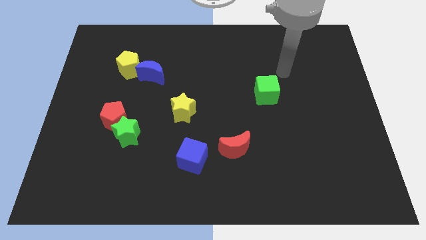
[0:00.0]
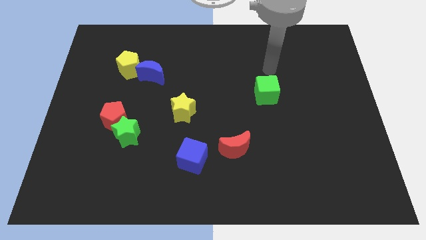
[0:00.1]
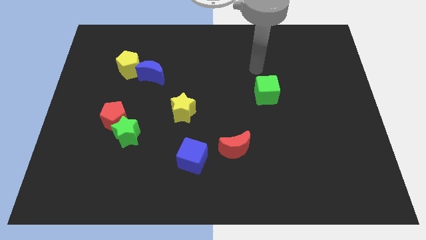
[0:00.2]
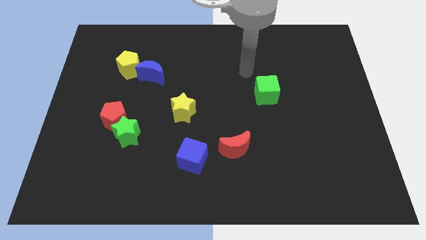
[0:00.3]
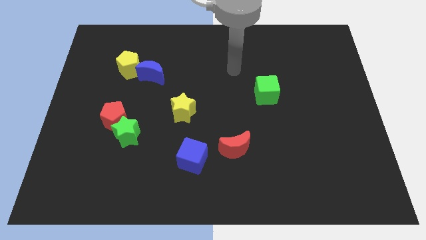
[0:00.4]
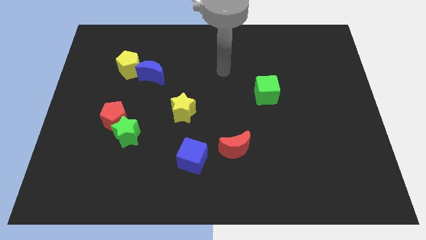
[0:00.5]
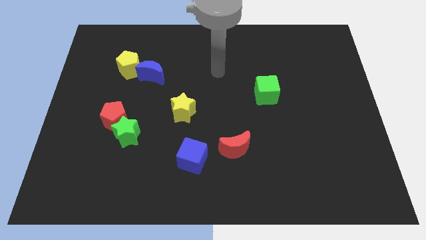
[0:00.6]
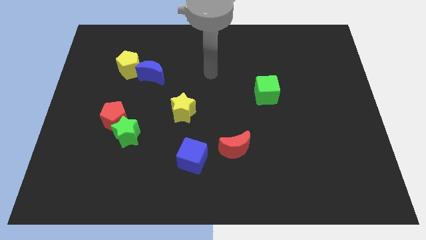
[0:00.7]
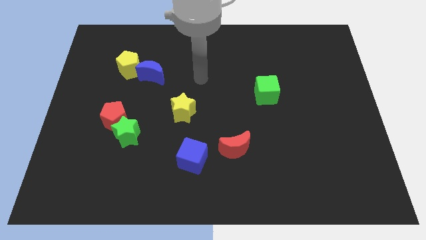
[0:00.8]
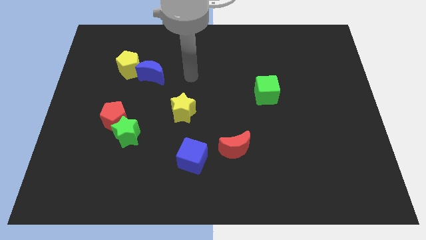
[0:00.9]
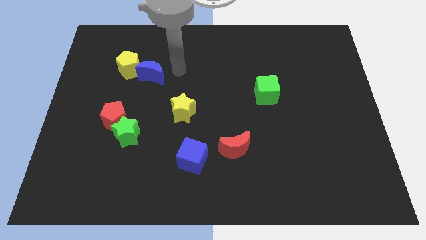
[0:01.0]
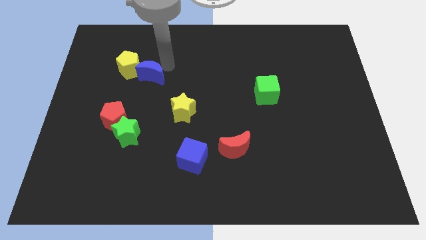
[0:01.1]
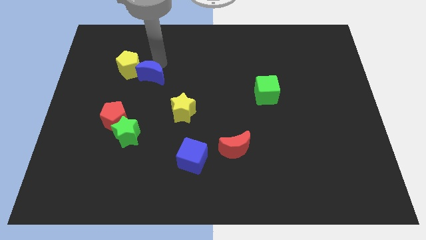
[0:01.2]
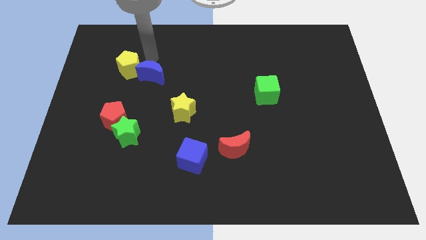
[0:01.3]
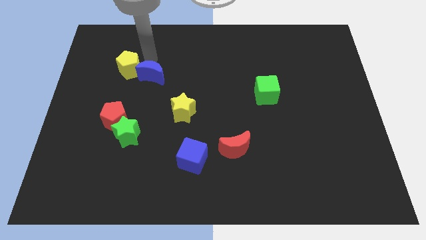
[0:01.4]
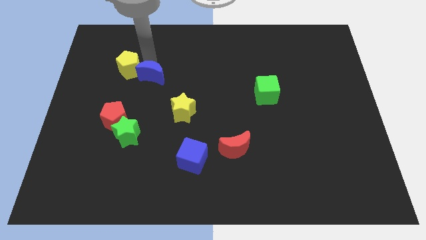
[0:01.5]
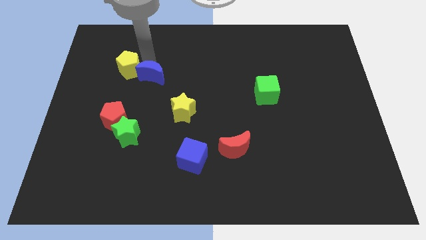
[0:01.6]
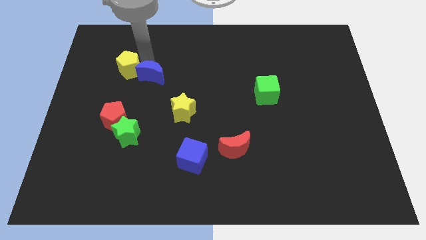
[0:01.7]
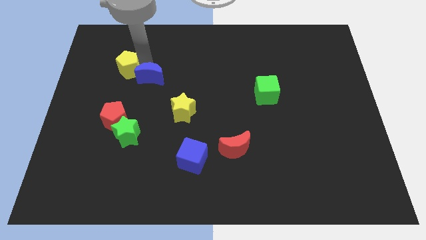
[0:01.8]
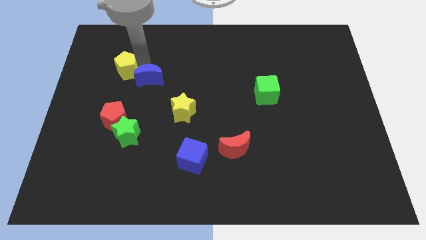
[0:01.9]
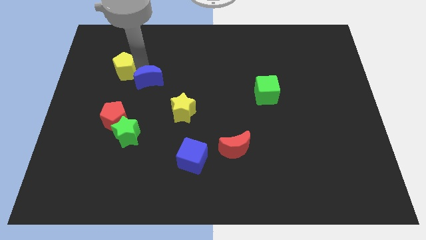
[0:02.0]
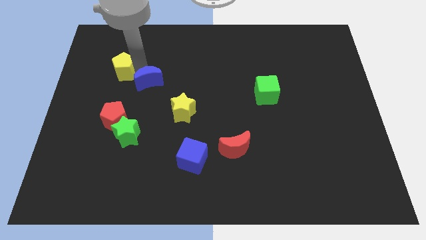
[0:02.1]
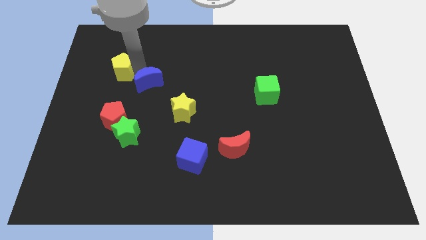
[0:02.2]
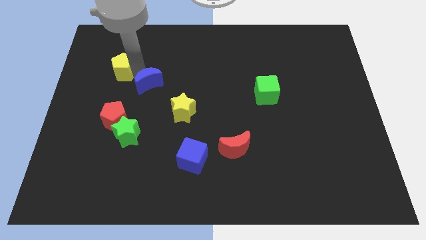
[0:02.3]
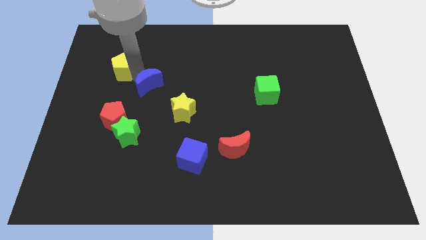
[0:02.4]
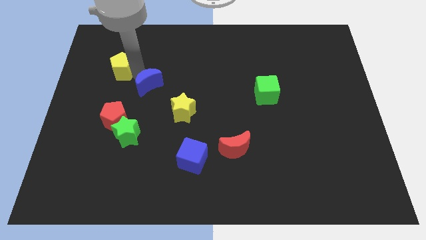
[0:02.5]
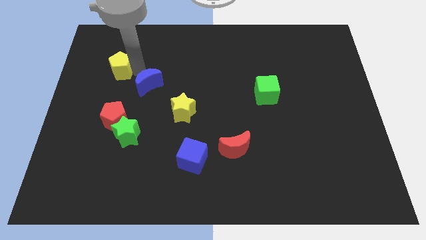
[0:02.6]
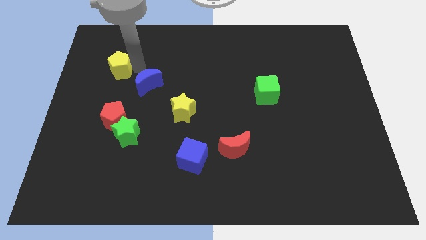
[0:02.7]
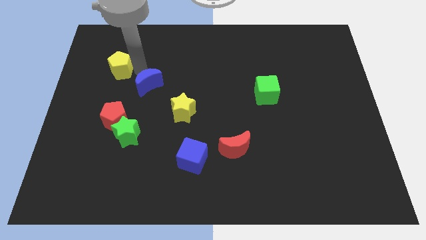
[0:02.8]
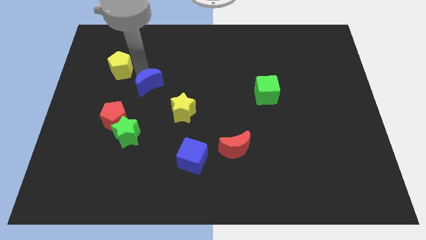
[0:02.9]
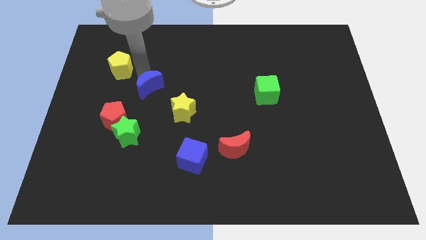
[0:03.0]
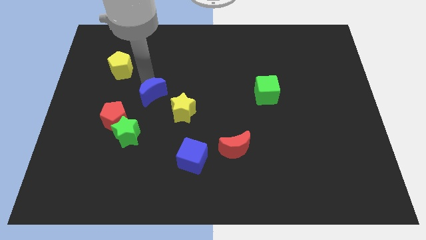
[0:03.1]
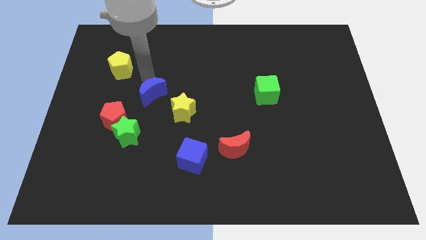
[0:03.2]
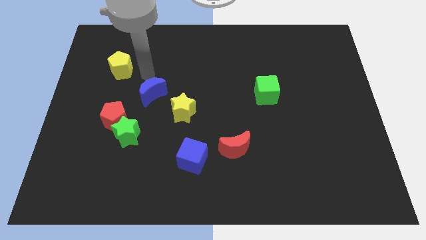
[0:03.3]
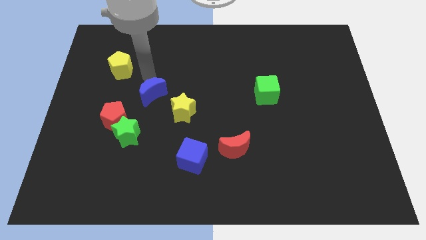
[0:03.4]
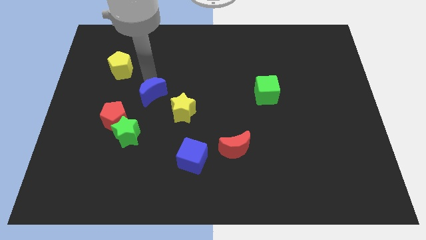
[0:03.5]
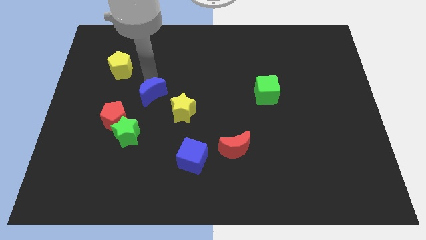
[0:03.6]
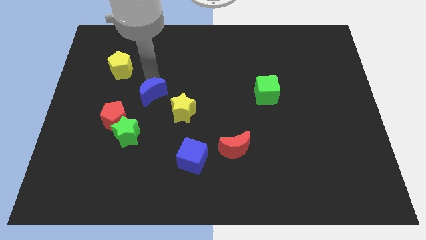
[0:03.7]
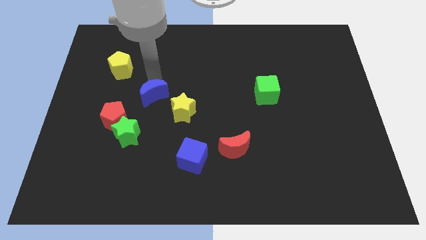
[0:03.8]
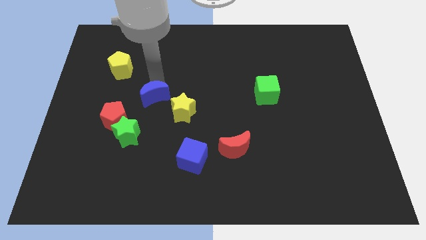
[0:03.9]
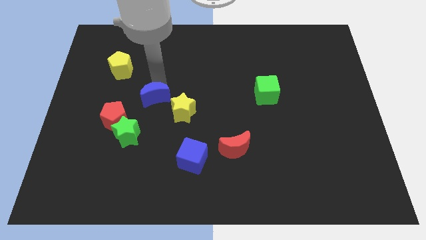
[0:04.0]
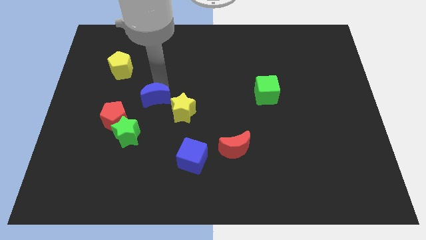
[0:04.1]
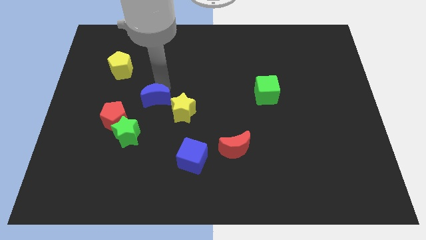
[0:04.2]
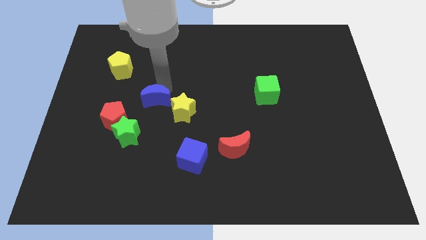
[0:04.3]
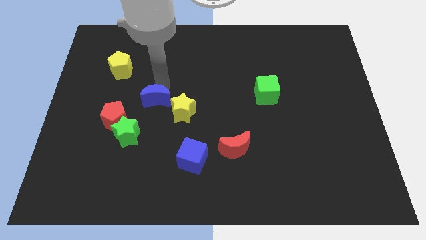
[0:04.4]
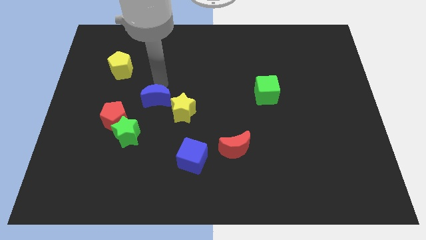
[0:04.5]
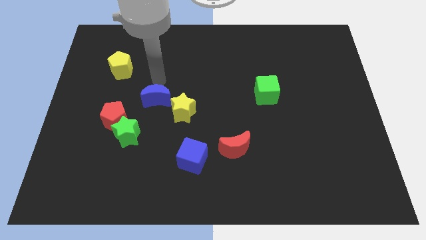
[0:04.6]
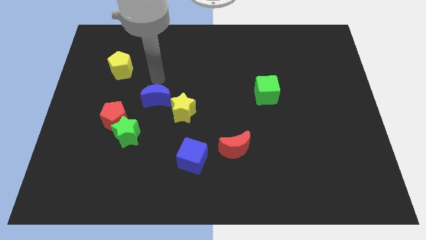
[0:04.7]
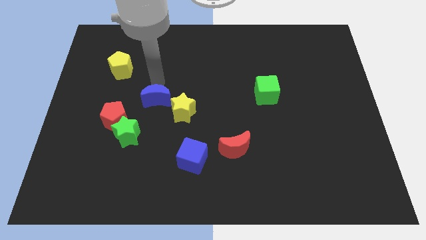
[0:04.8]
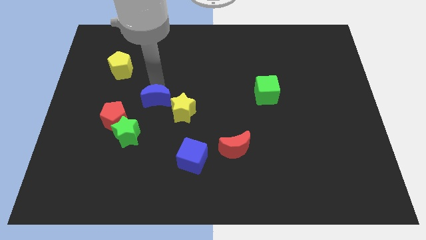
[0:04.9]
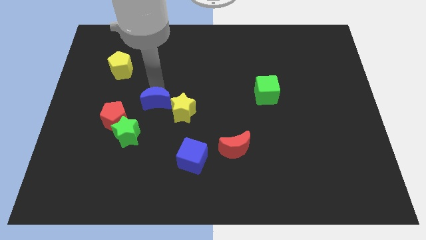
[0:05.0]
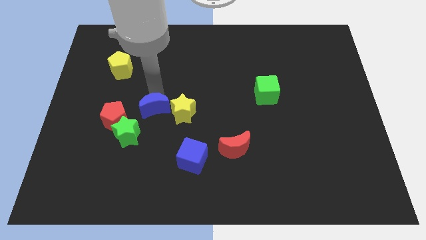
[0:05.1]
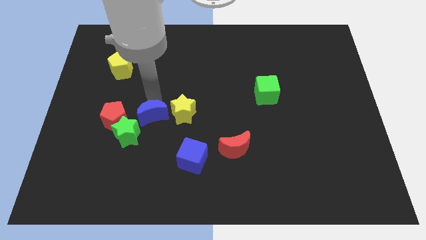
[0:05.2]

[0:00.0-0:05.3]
push the blue moon to the bottom left of the yellow star

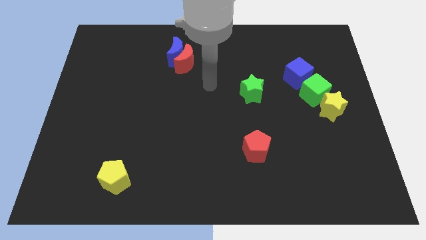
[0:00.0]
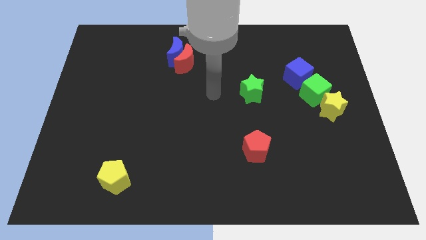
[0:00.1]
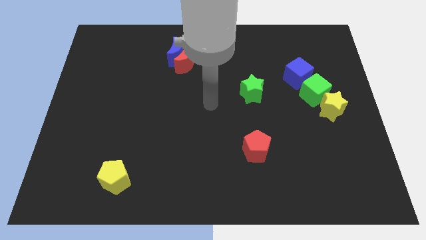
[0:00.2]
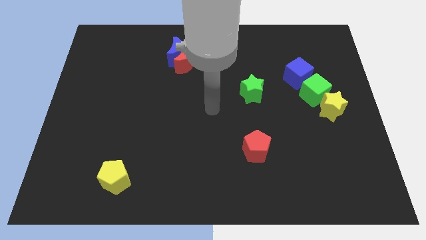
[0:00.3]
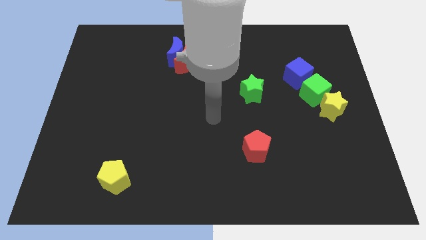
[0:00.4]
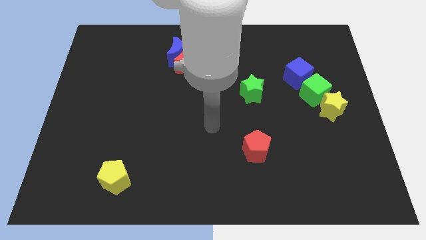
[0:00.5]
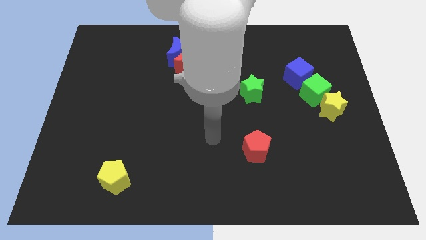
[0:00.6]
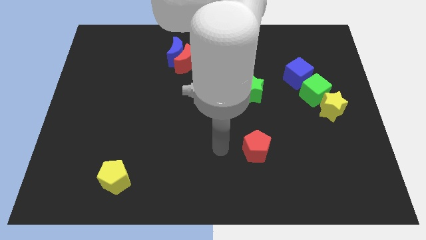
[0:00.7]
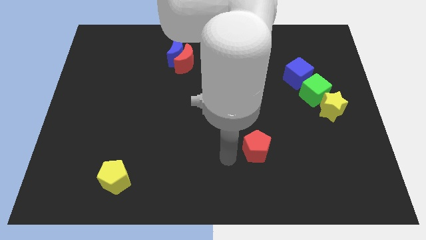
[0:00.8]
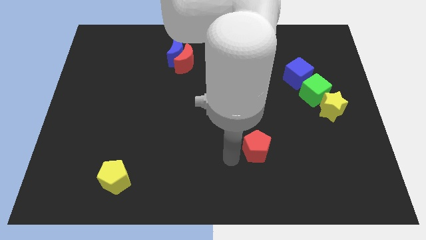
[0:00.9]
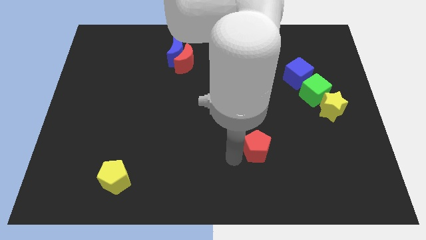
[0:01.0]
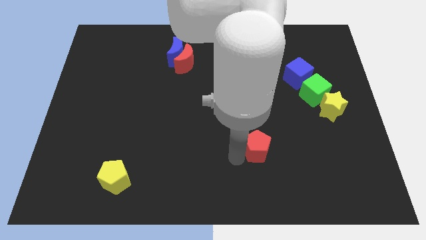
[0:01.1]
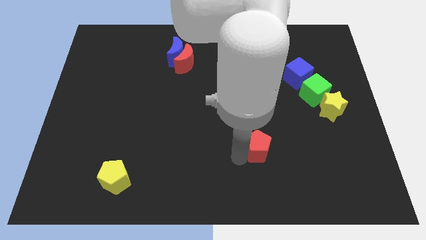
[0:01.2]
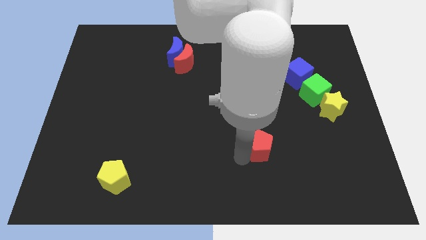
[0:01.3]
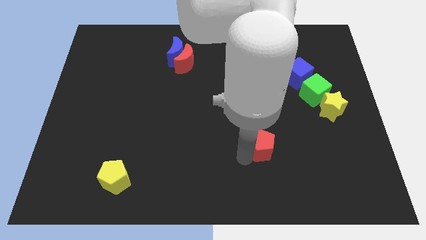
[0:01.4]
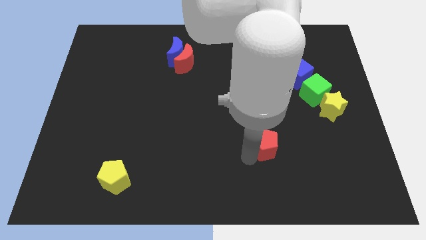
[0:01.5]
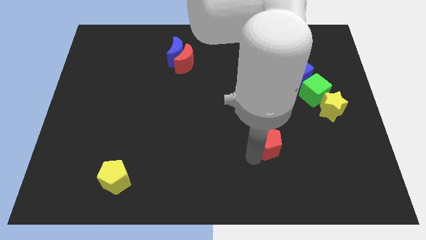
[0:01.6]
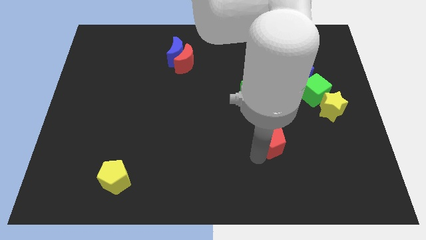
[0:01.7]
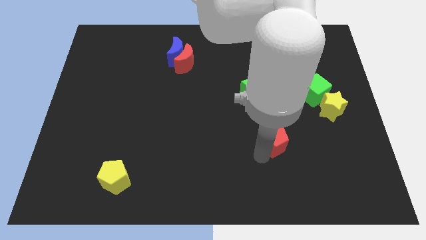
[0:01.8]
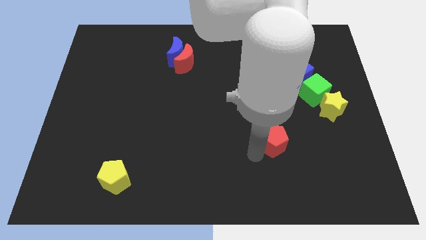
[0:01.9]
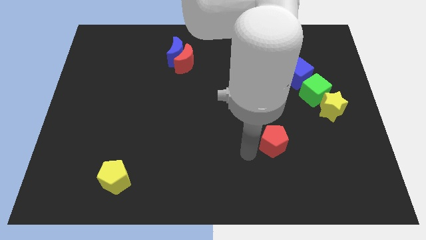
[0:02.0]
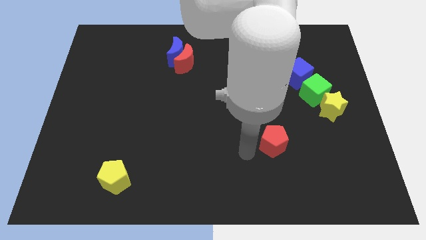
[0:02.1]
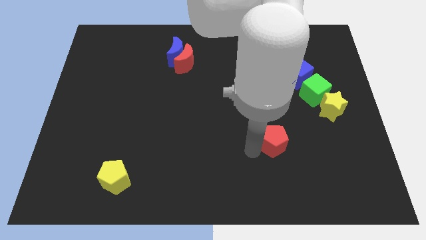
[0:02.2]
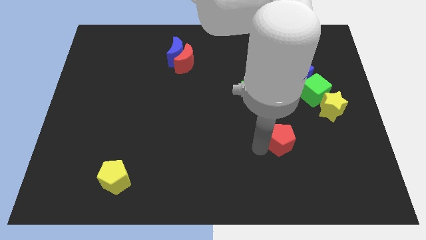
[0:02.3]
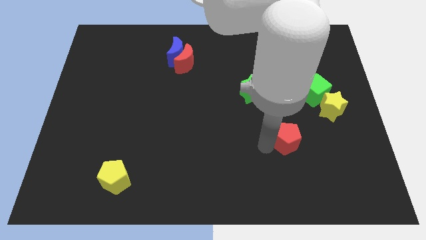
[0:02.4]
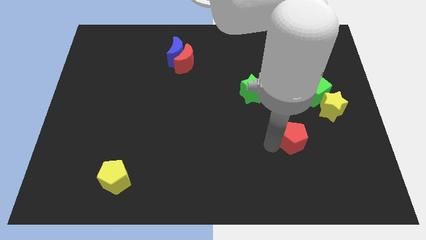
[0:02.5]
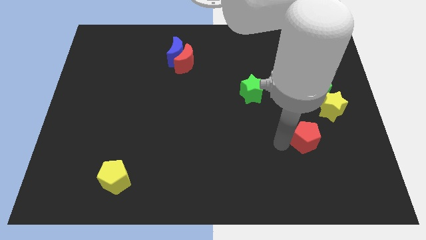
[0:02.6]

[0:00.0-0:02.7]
push the red pentagon to the bottom side of the green cube
